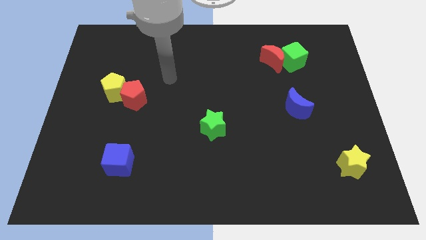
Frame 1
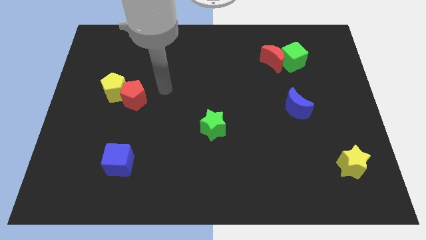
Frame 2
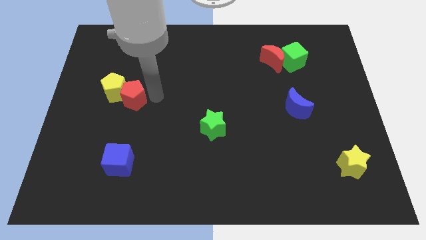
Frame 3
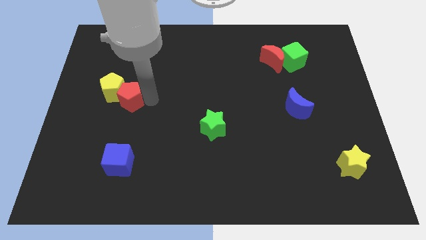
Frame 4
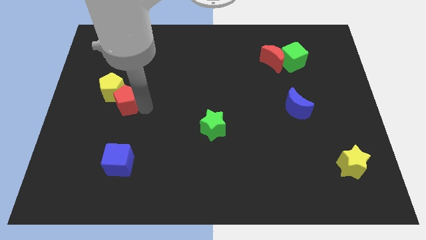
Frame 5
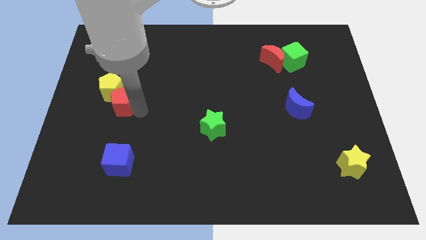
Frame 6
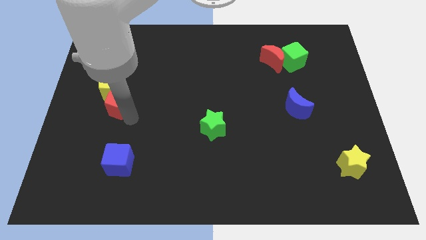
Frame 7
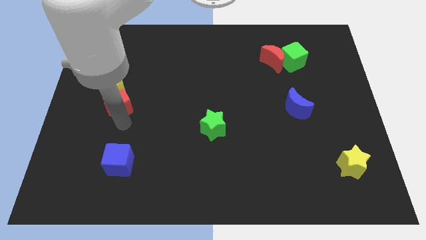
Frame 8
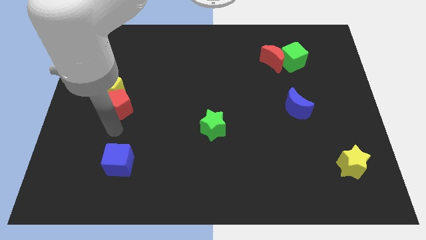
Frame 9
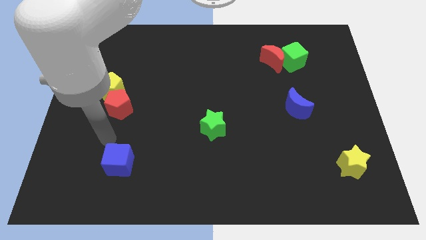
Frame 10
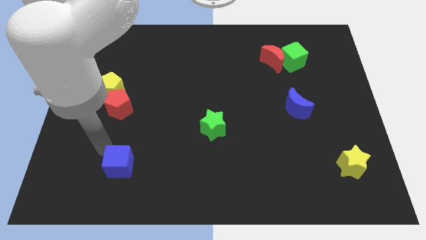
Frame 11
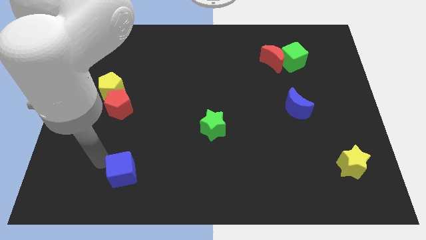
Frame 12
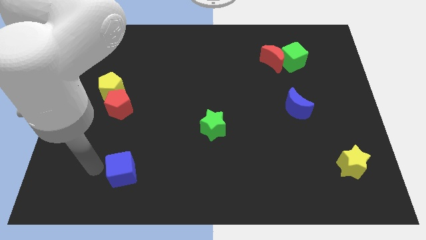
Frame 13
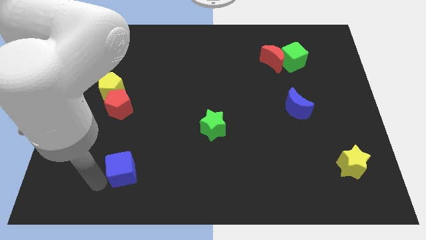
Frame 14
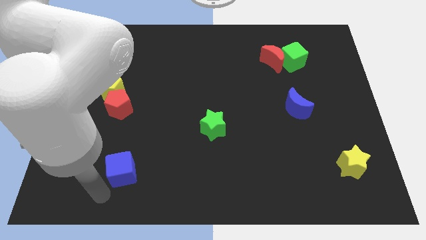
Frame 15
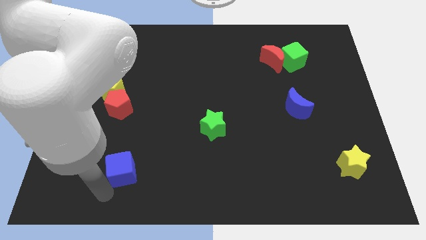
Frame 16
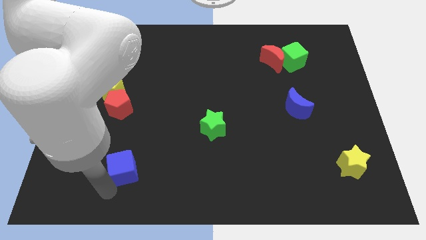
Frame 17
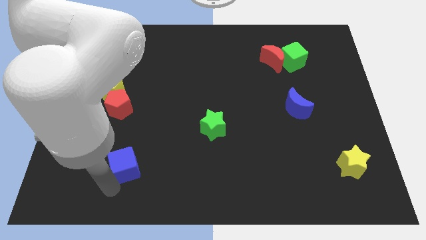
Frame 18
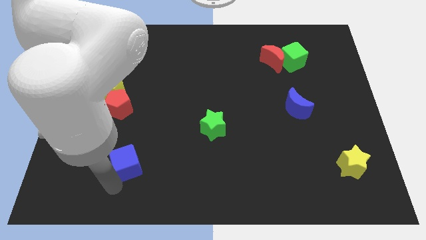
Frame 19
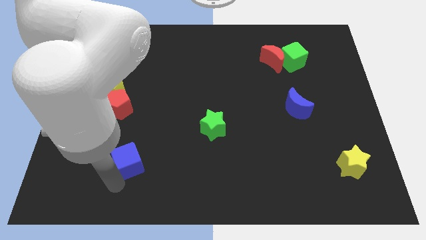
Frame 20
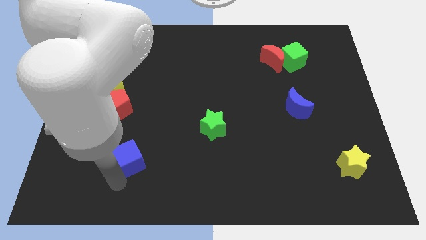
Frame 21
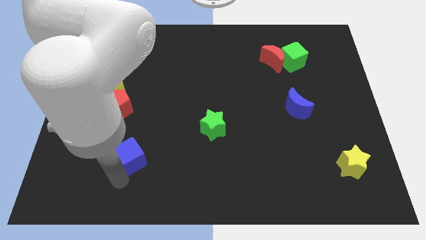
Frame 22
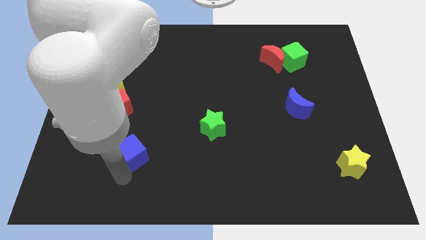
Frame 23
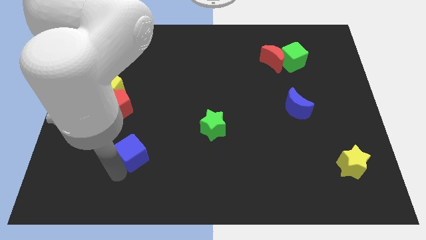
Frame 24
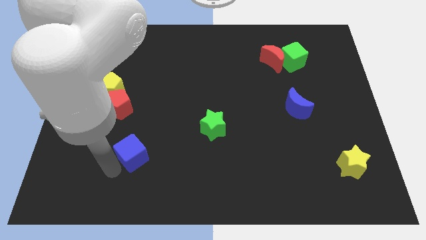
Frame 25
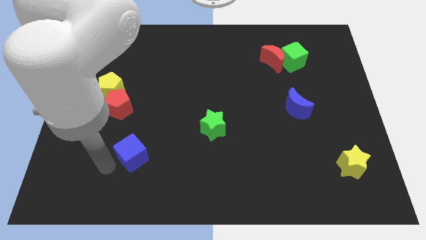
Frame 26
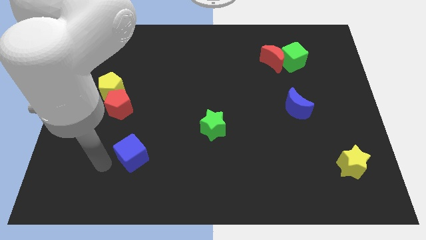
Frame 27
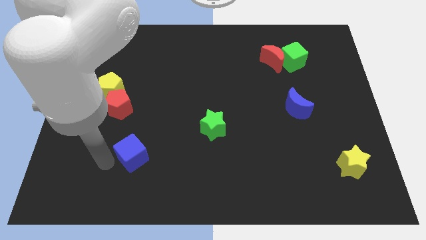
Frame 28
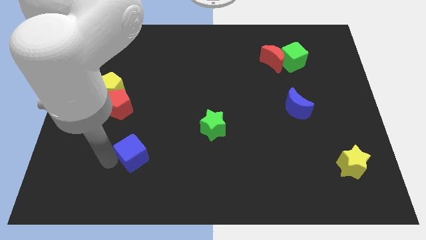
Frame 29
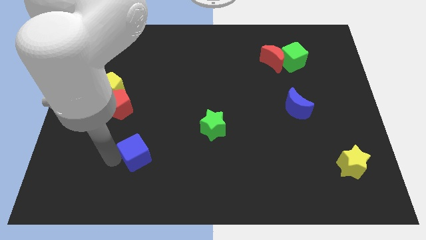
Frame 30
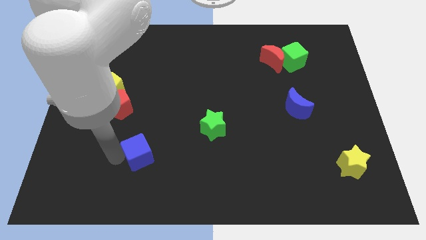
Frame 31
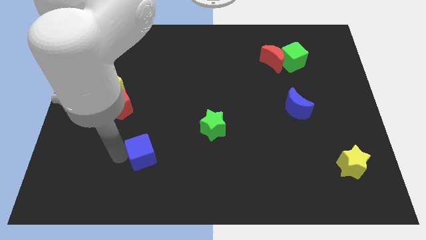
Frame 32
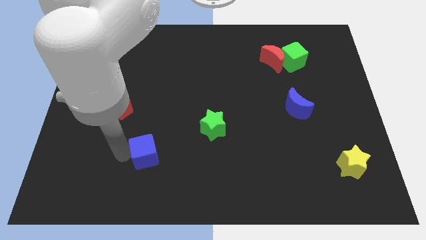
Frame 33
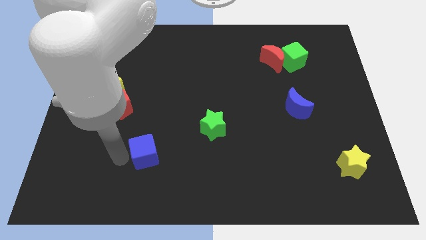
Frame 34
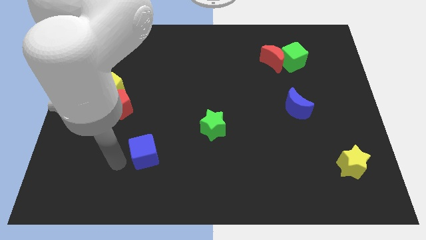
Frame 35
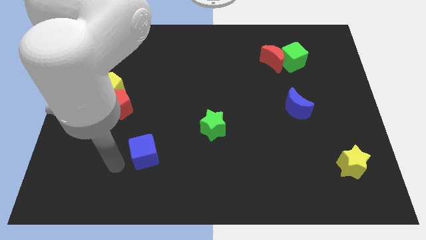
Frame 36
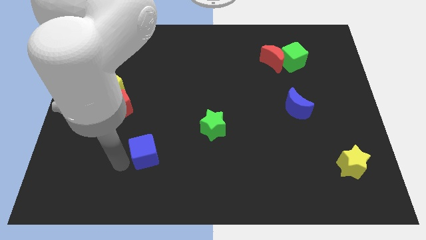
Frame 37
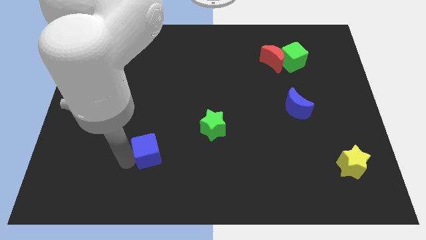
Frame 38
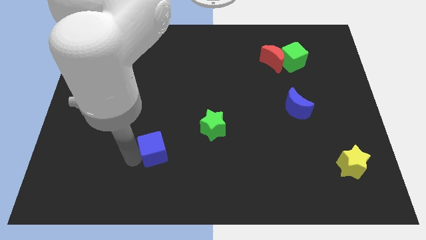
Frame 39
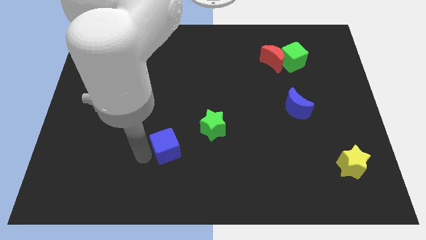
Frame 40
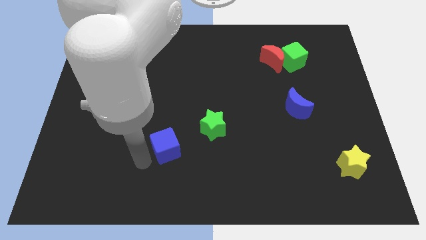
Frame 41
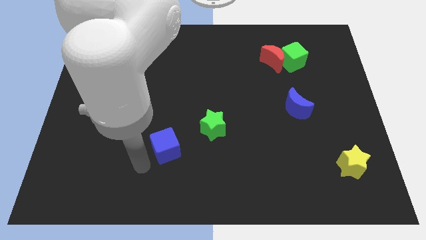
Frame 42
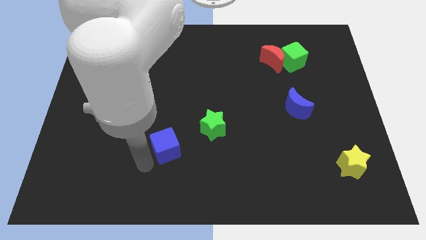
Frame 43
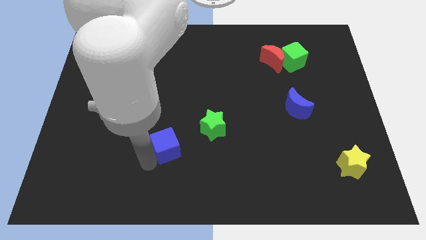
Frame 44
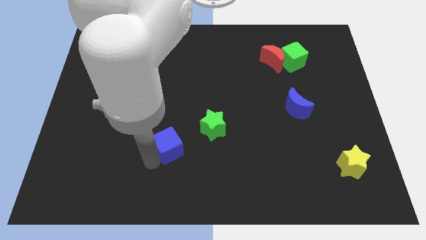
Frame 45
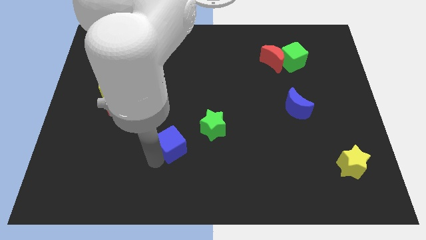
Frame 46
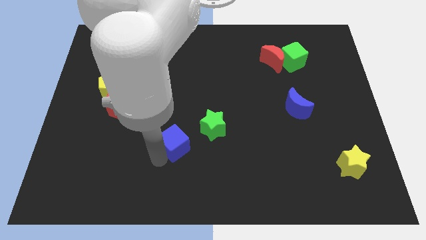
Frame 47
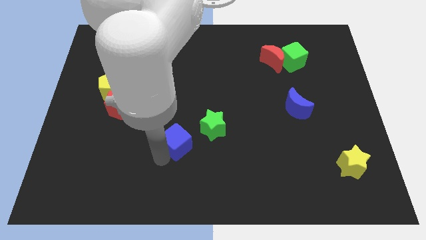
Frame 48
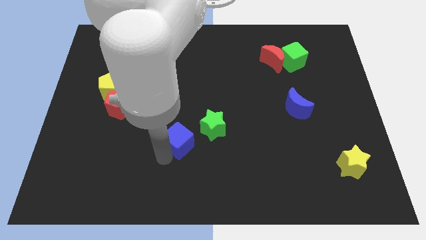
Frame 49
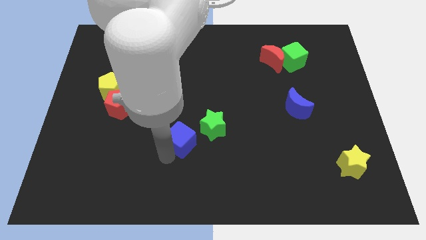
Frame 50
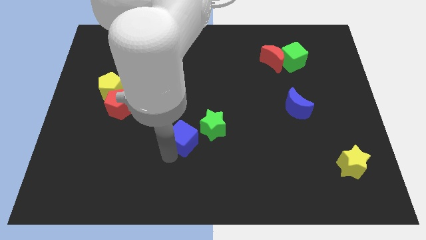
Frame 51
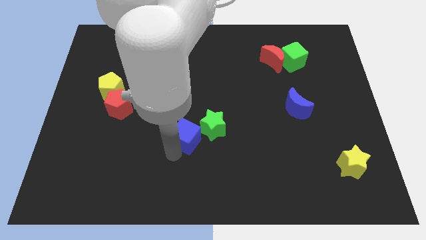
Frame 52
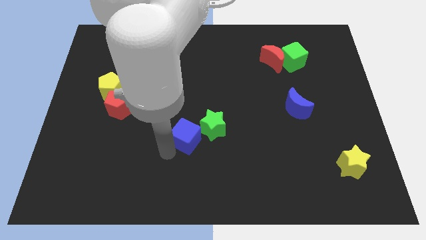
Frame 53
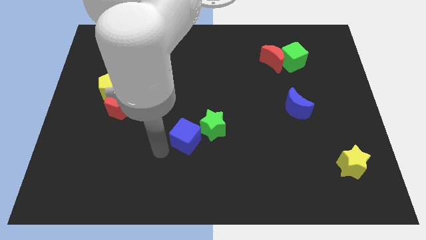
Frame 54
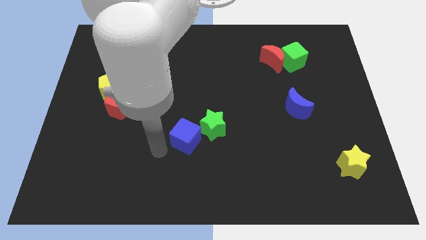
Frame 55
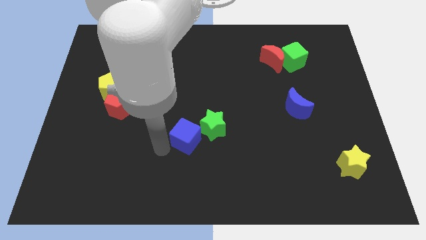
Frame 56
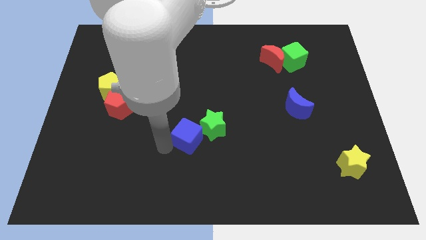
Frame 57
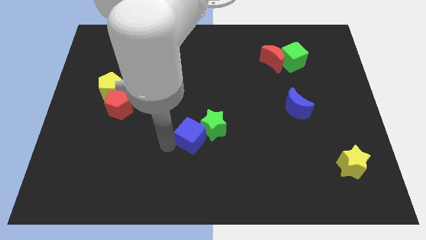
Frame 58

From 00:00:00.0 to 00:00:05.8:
slide the blue cube towards the green star

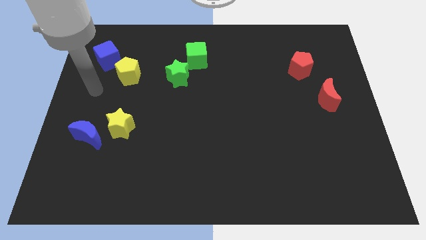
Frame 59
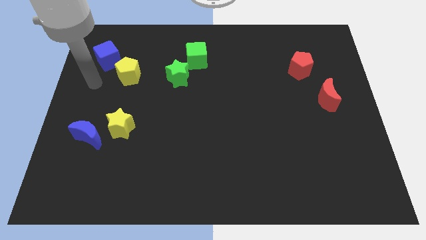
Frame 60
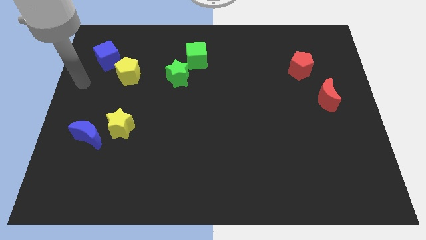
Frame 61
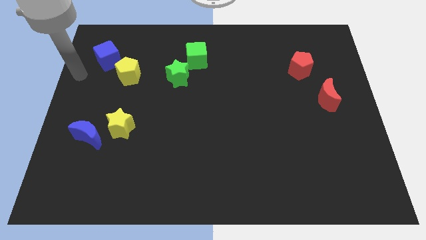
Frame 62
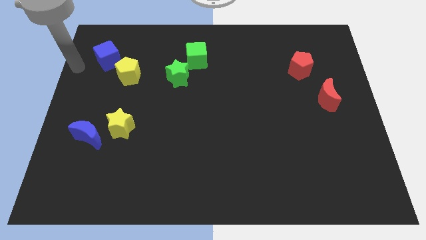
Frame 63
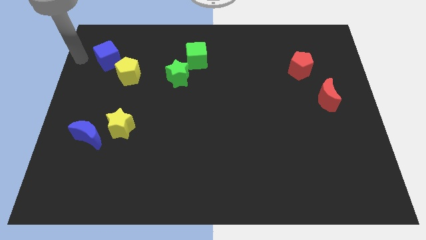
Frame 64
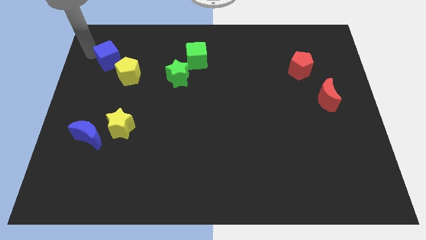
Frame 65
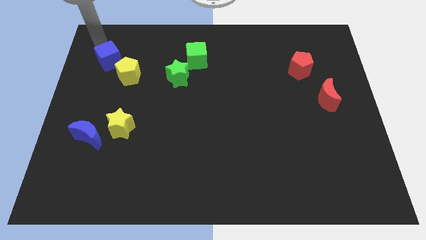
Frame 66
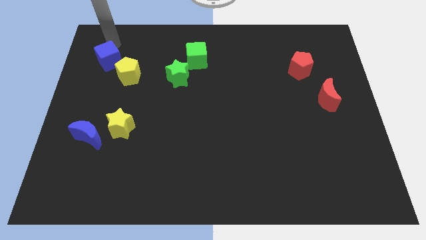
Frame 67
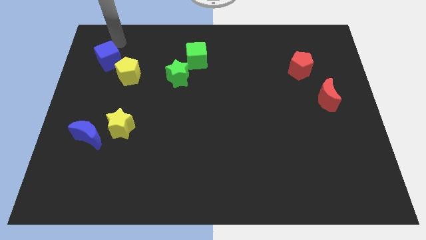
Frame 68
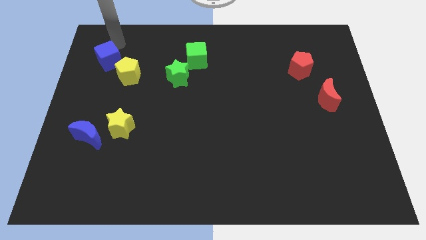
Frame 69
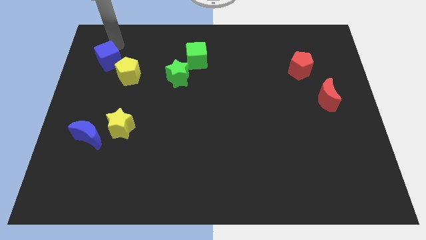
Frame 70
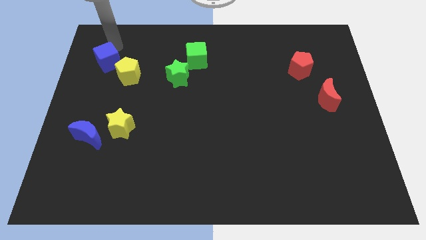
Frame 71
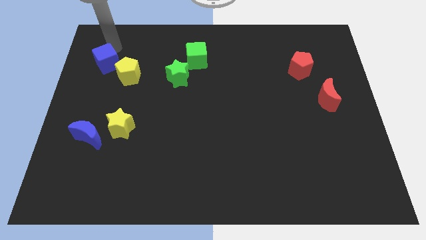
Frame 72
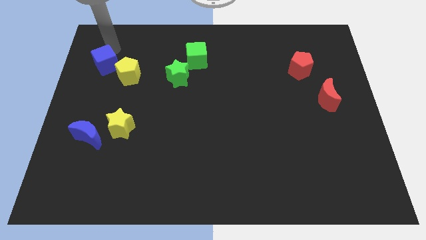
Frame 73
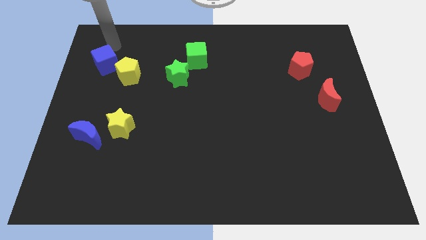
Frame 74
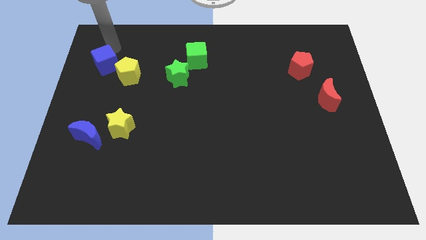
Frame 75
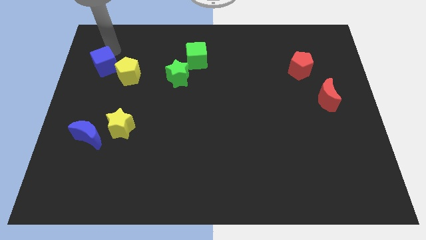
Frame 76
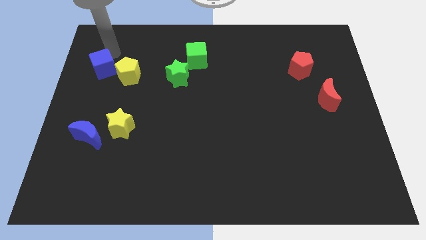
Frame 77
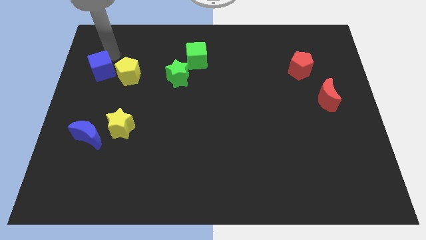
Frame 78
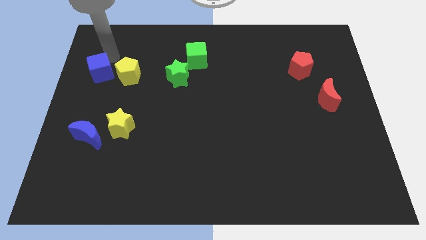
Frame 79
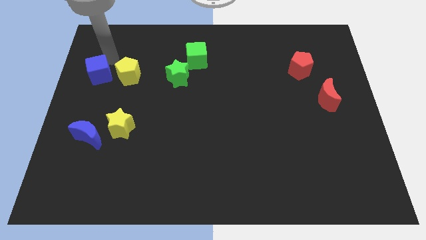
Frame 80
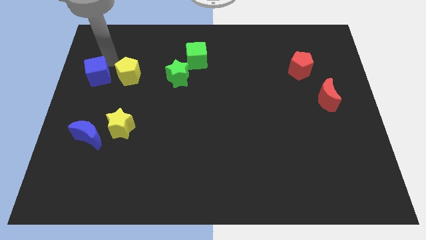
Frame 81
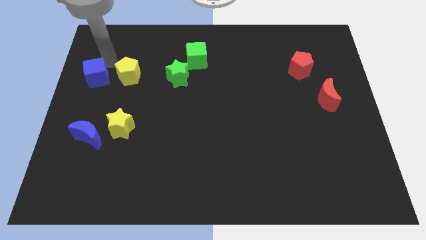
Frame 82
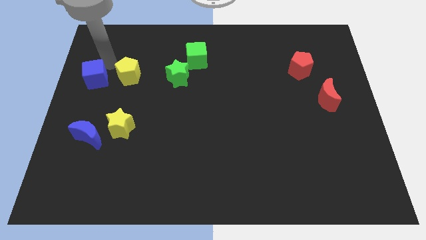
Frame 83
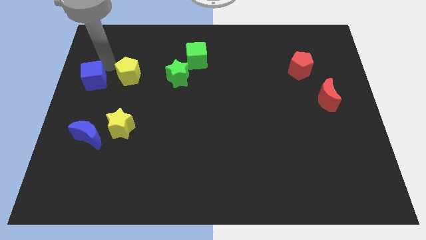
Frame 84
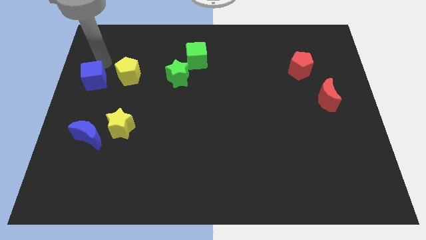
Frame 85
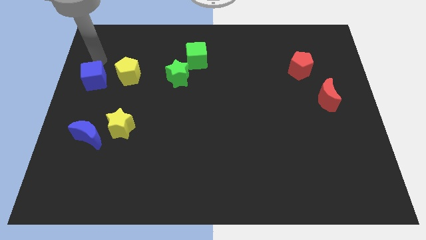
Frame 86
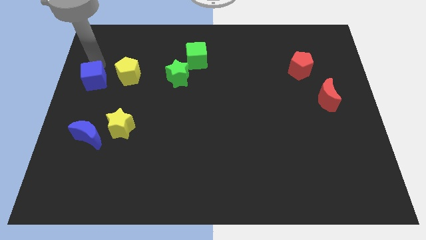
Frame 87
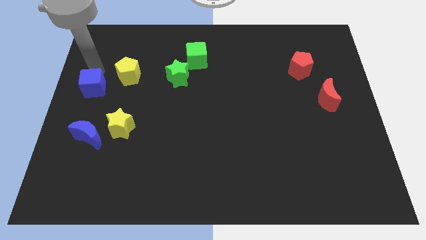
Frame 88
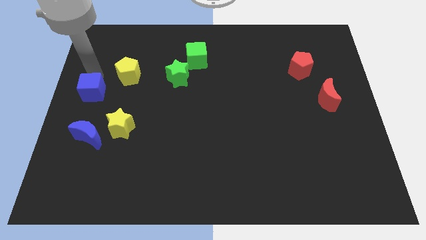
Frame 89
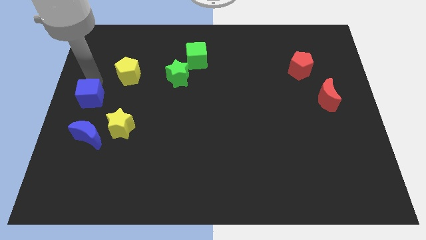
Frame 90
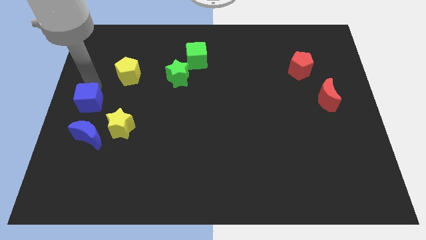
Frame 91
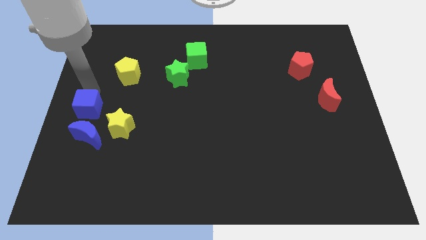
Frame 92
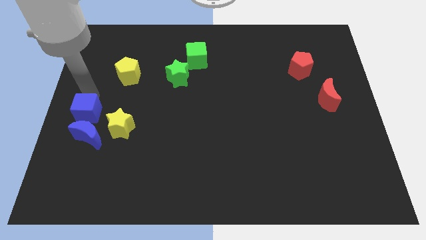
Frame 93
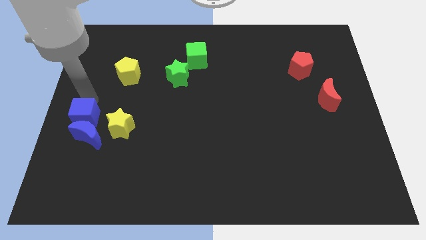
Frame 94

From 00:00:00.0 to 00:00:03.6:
push the blue cube close to the blue moon
